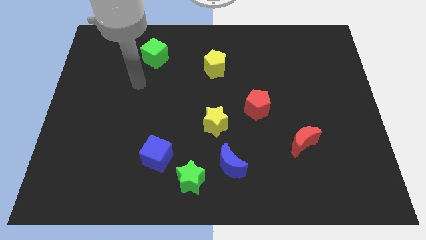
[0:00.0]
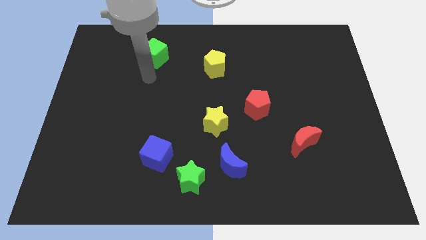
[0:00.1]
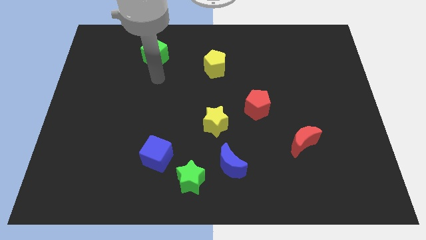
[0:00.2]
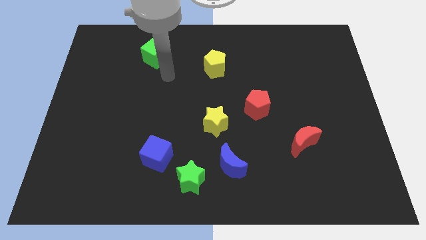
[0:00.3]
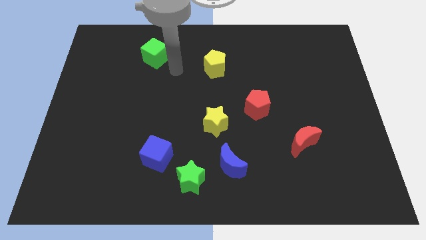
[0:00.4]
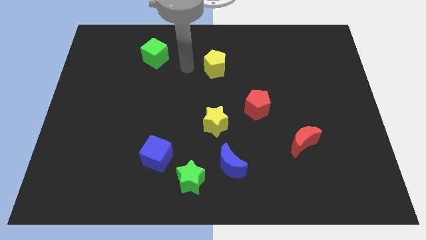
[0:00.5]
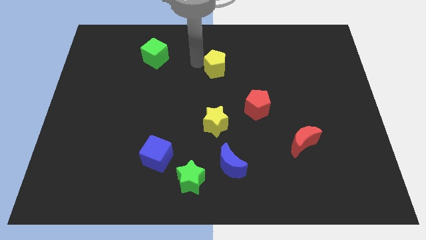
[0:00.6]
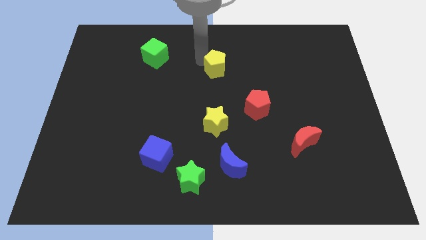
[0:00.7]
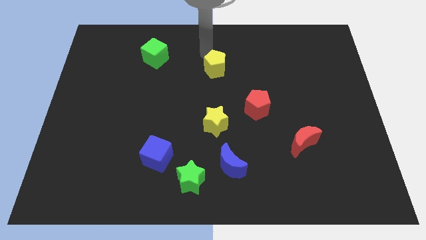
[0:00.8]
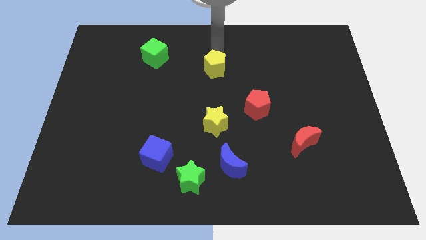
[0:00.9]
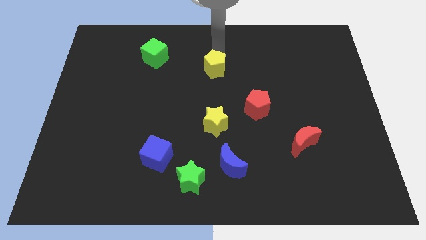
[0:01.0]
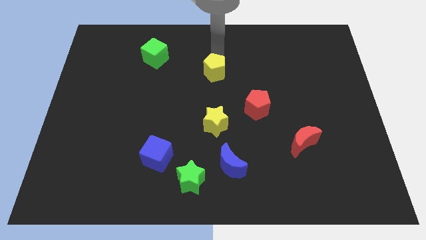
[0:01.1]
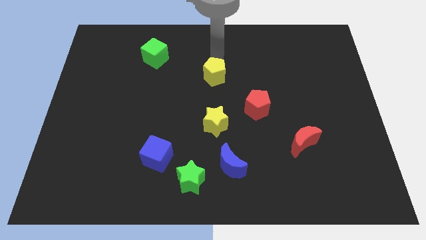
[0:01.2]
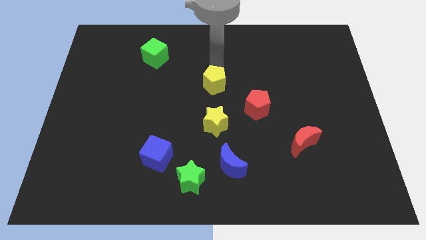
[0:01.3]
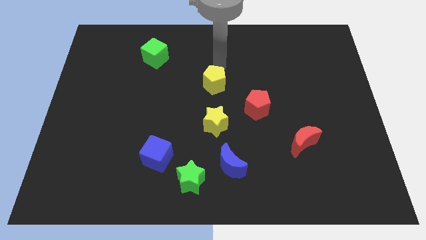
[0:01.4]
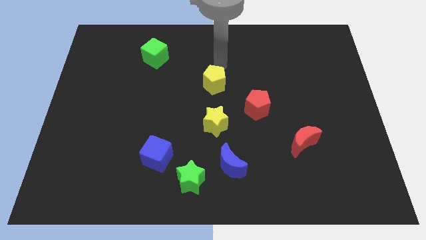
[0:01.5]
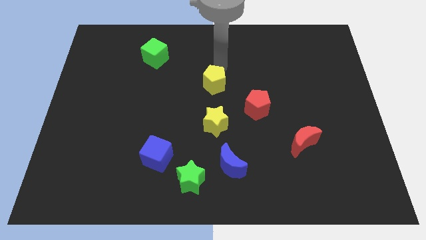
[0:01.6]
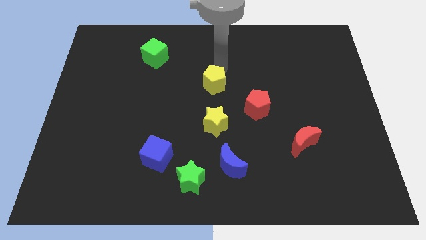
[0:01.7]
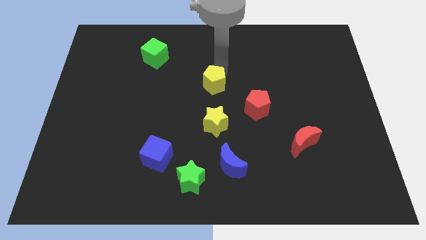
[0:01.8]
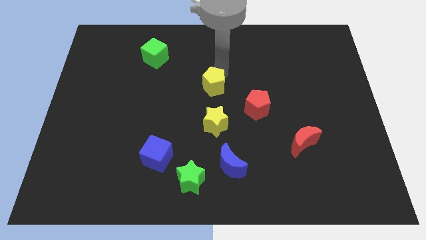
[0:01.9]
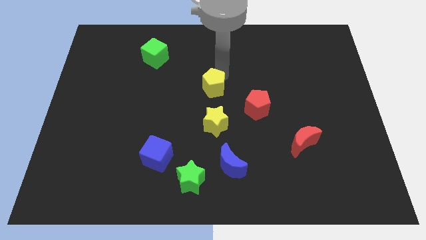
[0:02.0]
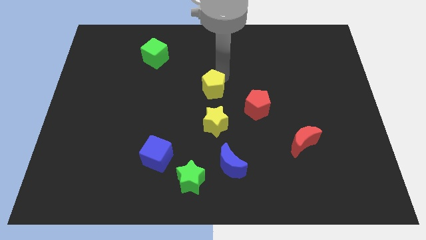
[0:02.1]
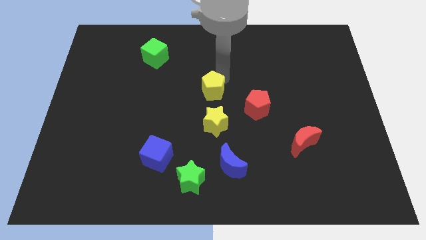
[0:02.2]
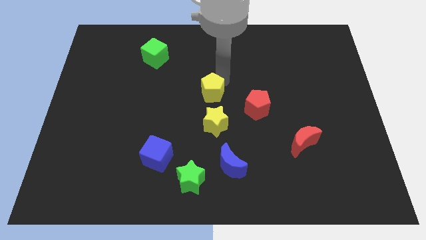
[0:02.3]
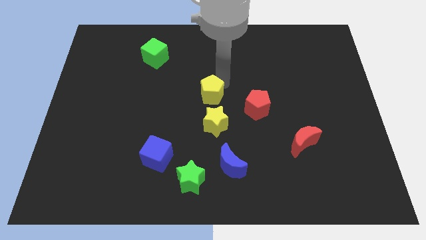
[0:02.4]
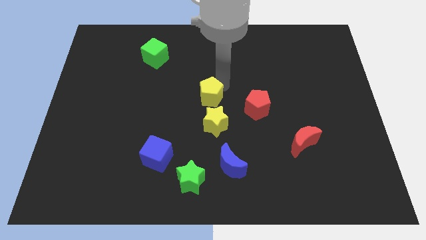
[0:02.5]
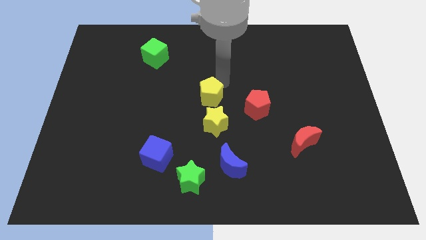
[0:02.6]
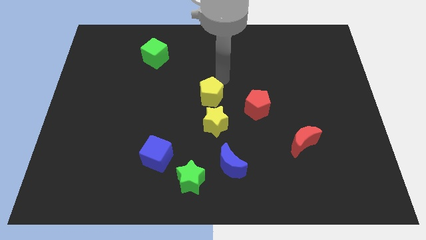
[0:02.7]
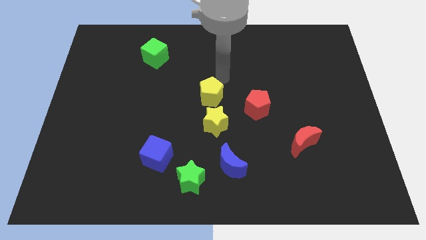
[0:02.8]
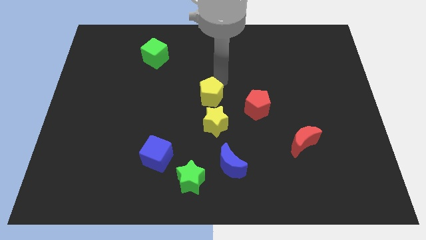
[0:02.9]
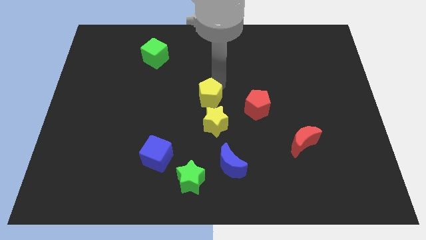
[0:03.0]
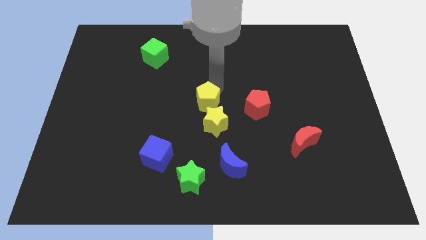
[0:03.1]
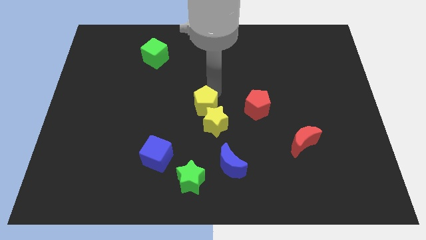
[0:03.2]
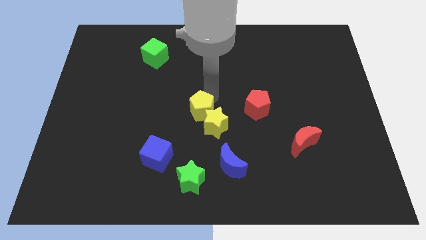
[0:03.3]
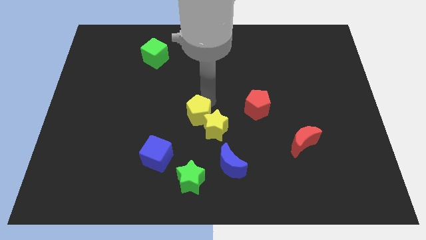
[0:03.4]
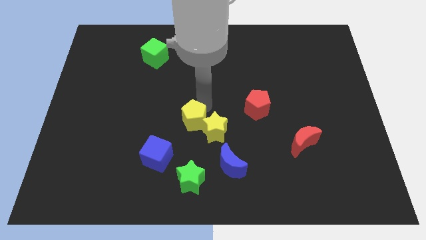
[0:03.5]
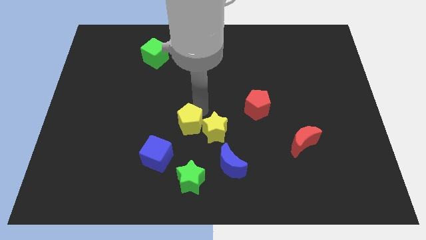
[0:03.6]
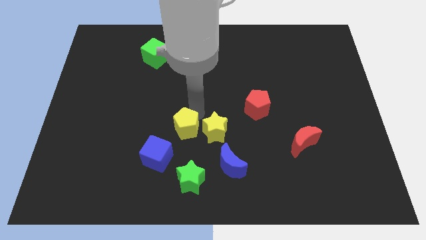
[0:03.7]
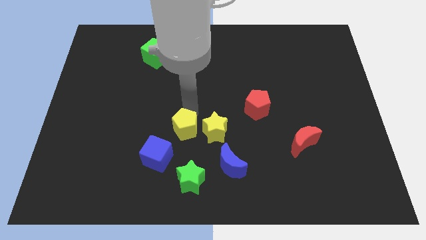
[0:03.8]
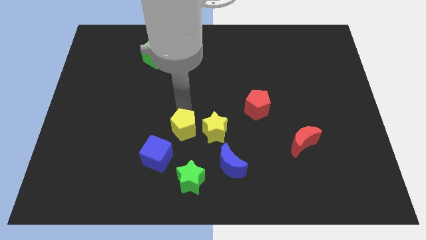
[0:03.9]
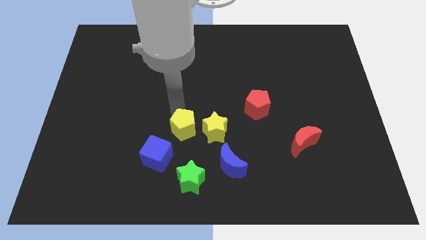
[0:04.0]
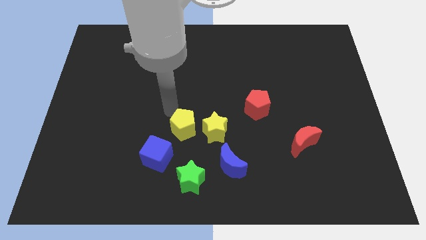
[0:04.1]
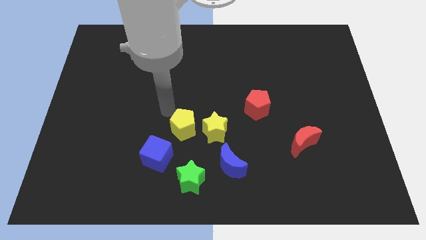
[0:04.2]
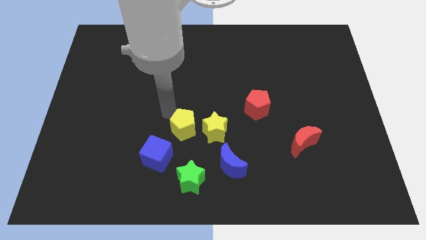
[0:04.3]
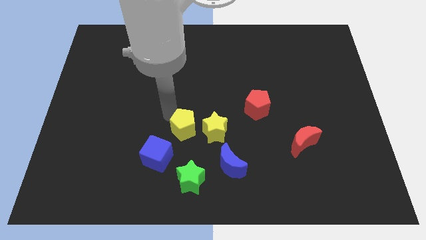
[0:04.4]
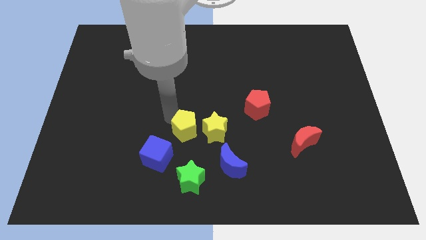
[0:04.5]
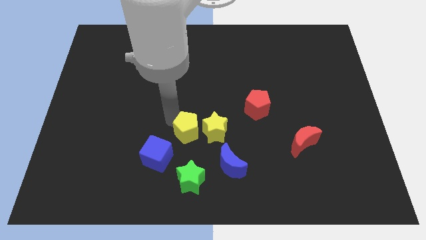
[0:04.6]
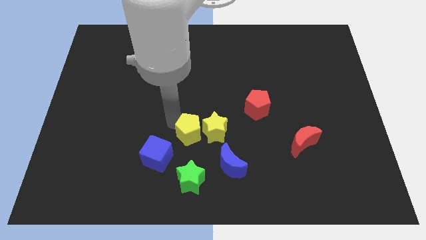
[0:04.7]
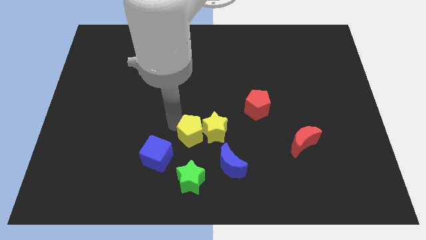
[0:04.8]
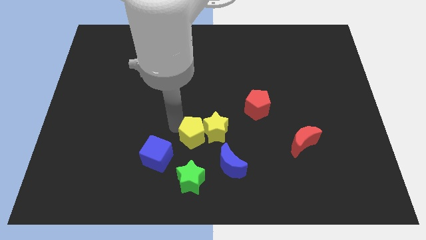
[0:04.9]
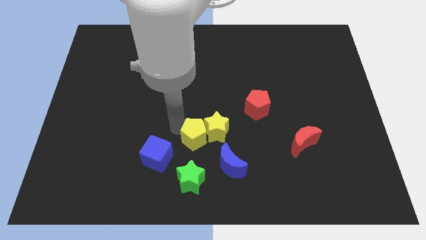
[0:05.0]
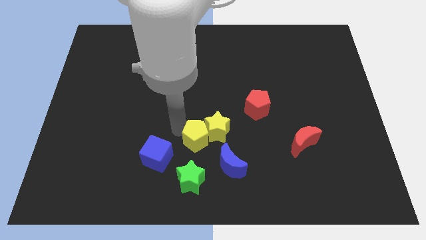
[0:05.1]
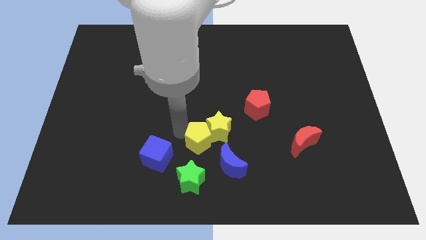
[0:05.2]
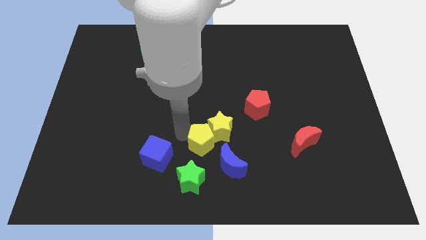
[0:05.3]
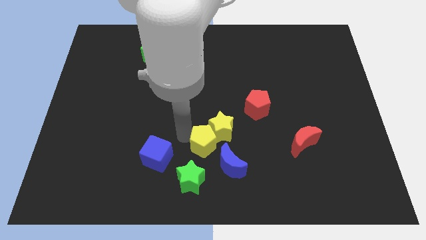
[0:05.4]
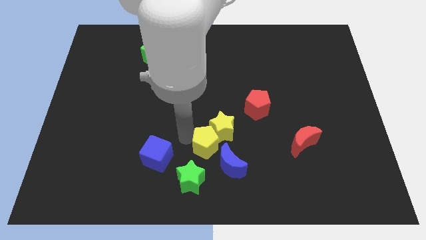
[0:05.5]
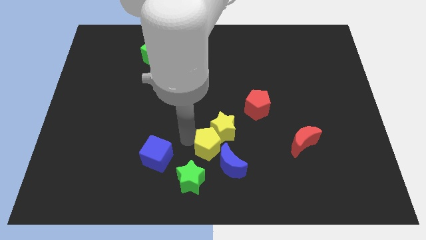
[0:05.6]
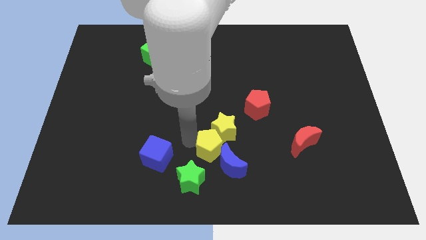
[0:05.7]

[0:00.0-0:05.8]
move the yellow pentagon close to the blue moon

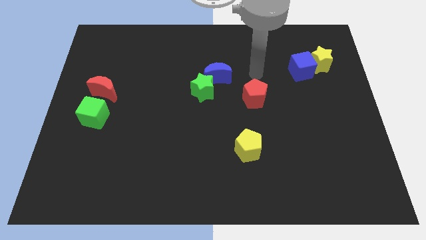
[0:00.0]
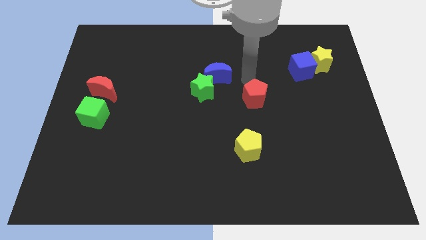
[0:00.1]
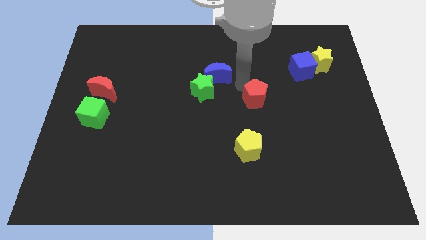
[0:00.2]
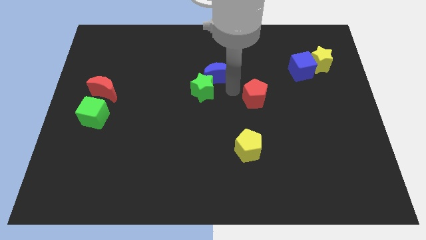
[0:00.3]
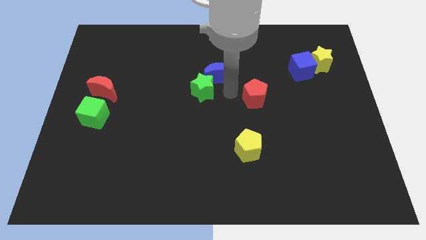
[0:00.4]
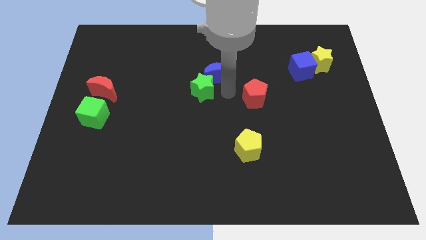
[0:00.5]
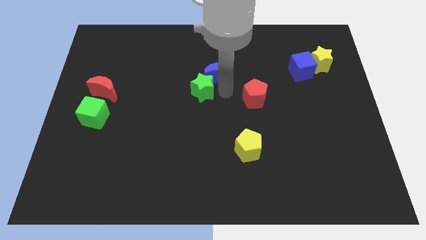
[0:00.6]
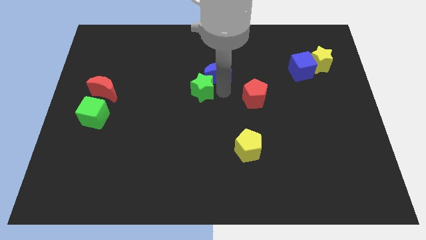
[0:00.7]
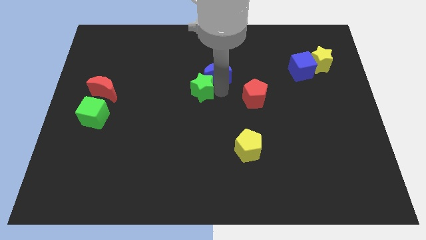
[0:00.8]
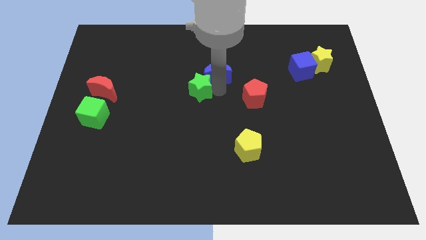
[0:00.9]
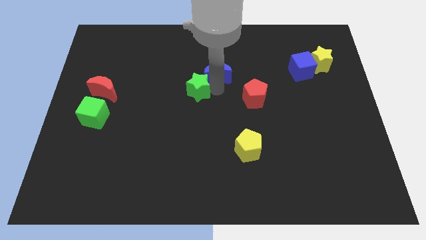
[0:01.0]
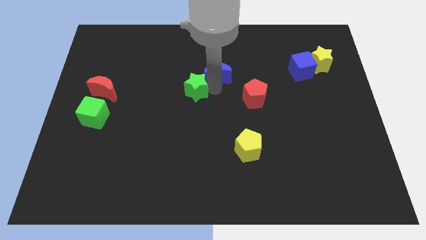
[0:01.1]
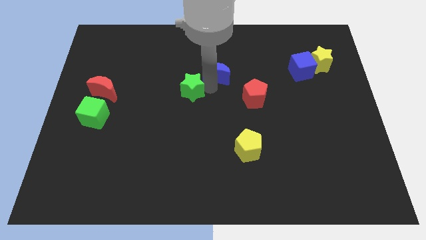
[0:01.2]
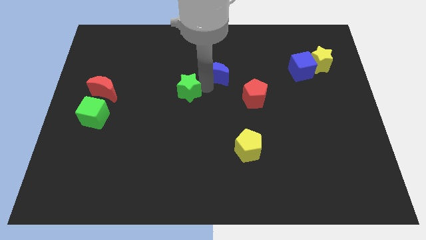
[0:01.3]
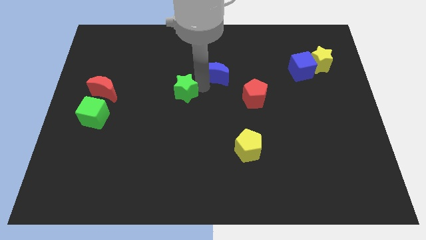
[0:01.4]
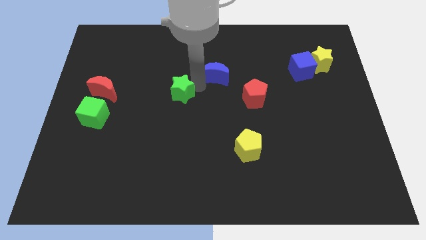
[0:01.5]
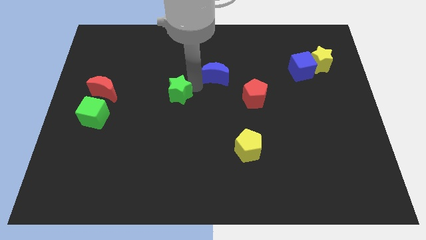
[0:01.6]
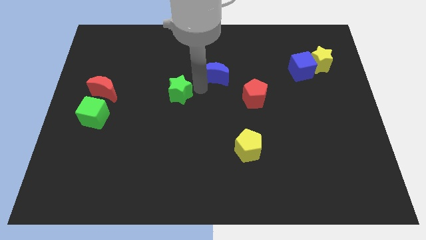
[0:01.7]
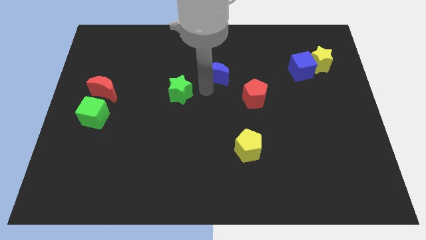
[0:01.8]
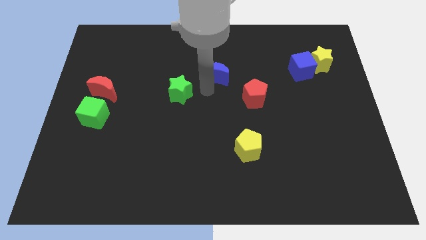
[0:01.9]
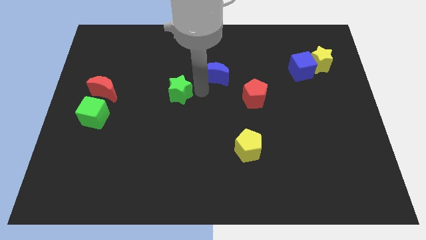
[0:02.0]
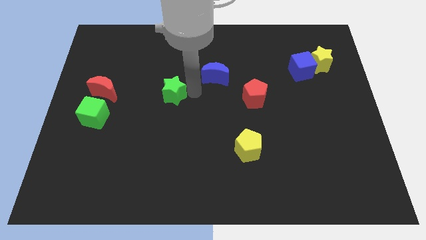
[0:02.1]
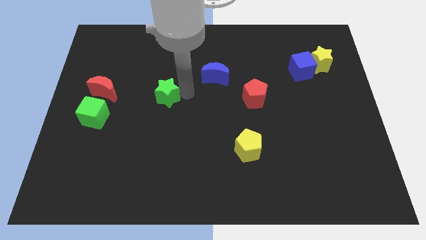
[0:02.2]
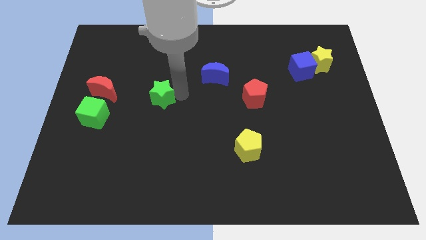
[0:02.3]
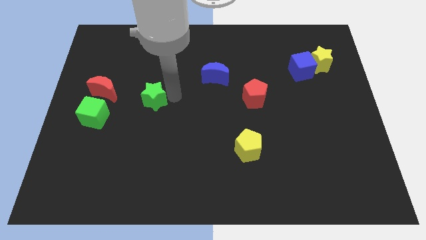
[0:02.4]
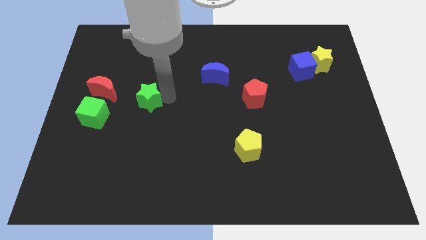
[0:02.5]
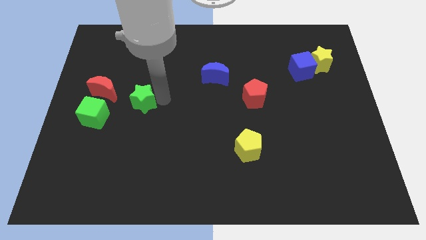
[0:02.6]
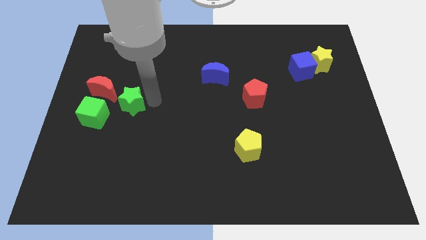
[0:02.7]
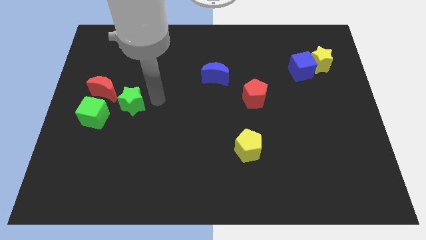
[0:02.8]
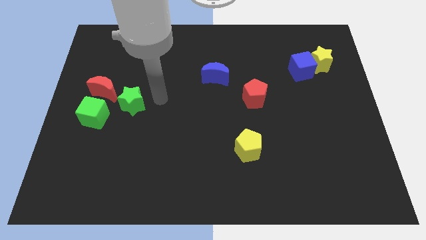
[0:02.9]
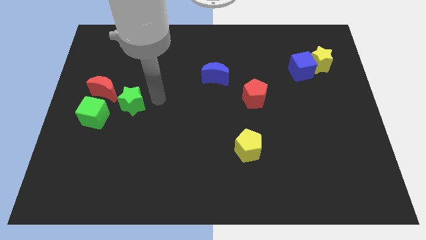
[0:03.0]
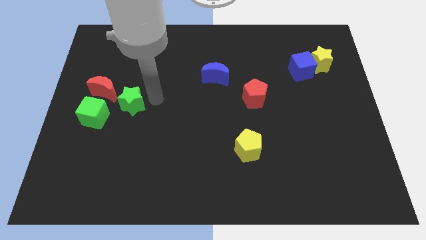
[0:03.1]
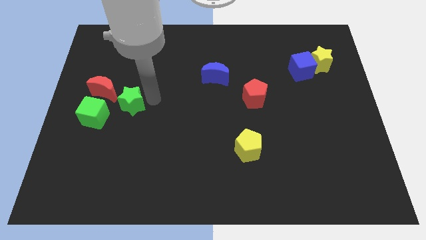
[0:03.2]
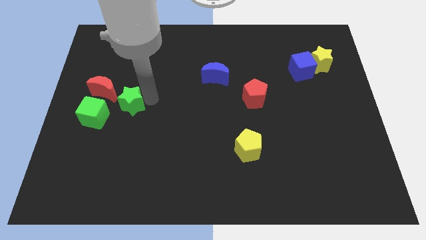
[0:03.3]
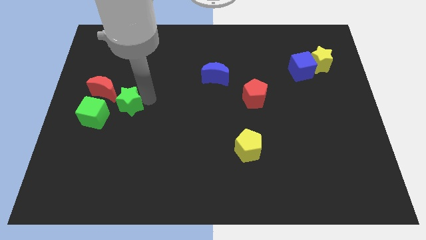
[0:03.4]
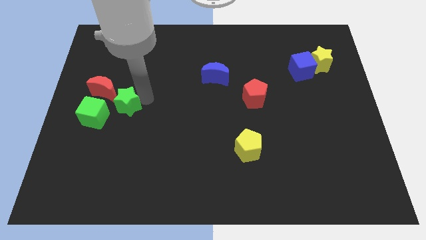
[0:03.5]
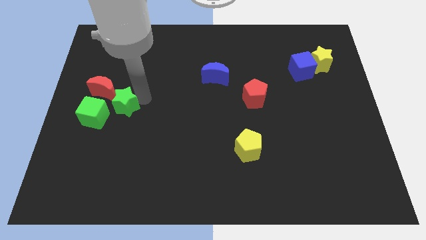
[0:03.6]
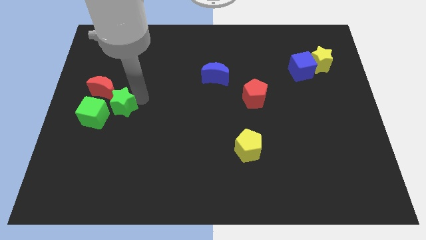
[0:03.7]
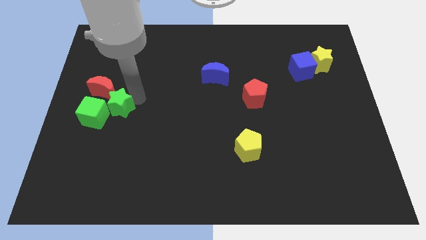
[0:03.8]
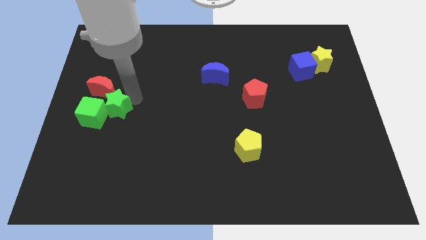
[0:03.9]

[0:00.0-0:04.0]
push the green star next to the green cube
